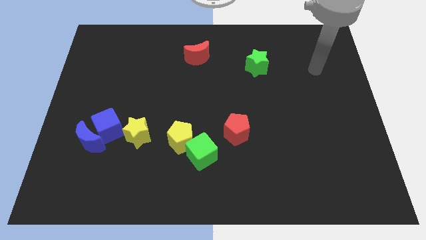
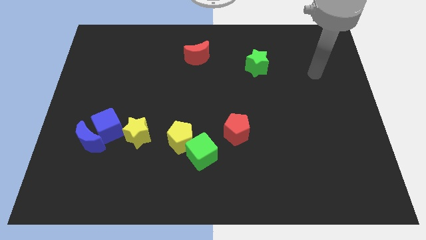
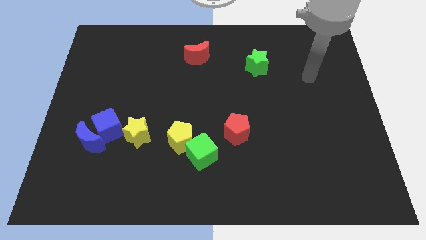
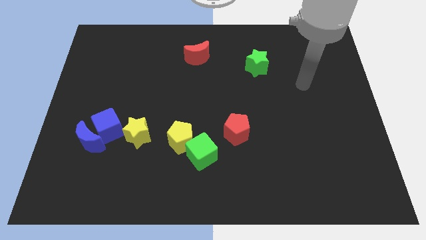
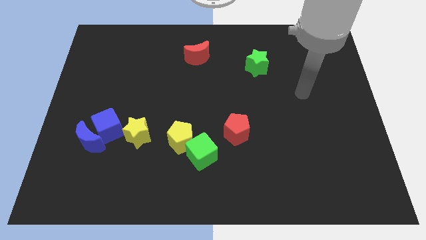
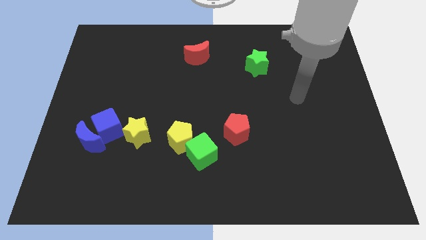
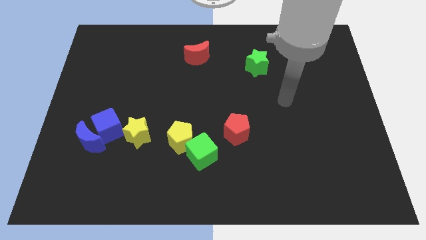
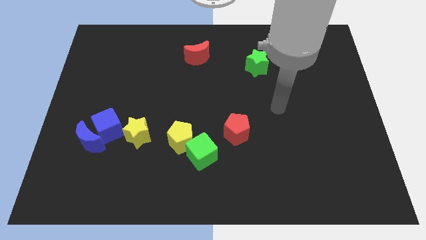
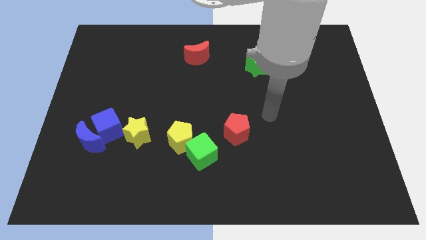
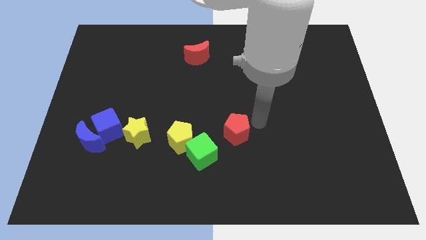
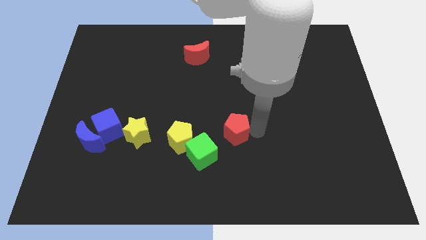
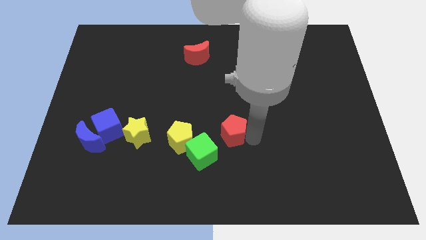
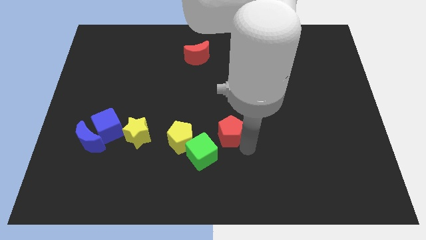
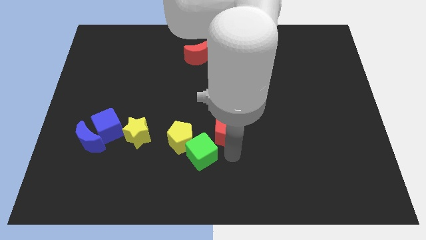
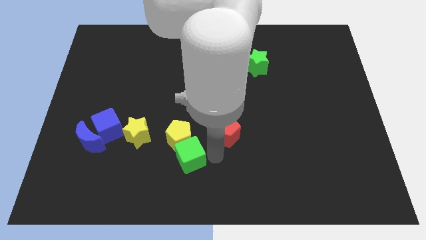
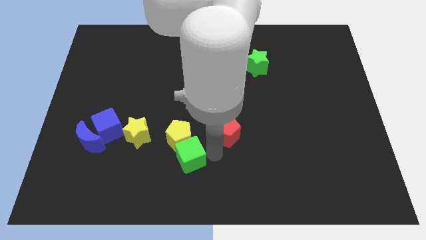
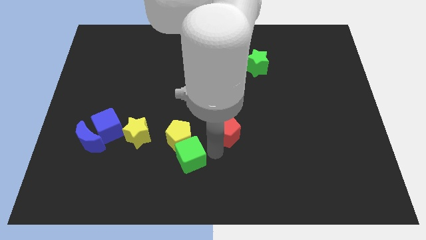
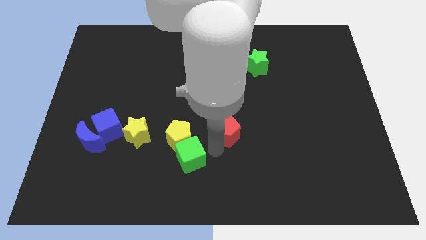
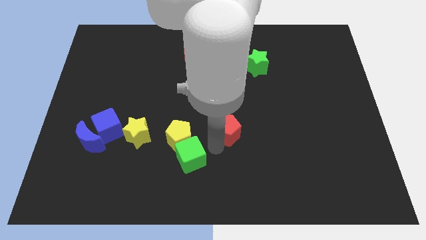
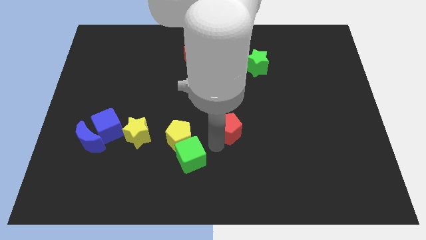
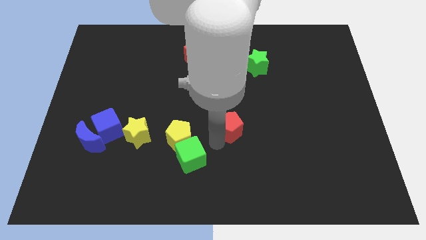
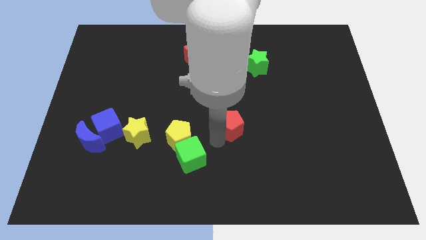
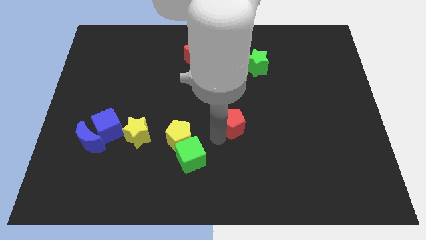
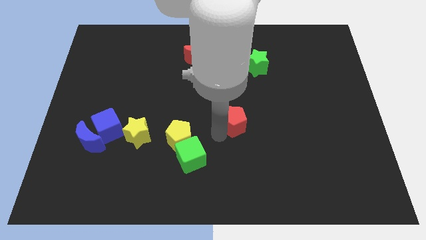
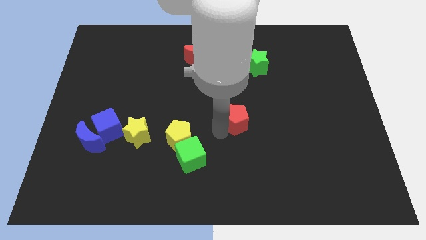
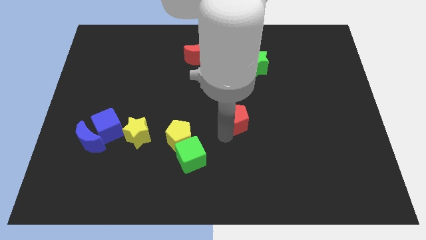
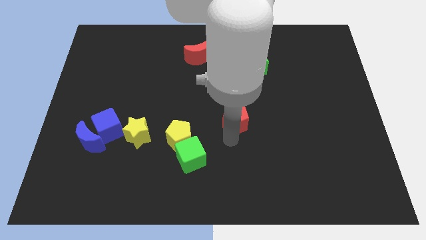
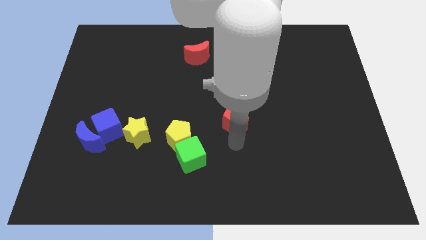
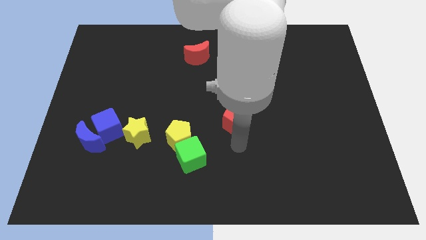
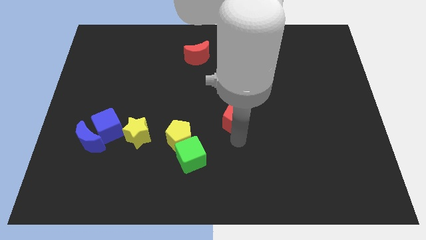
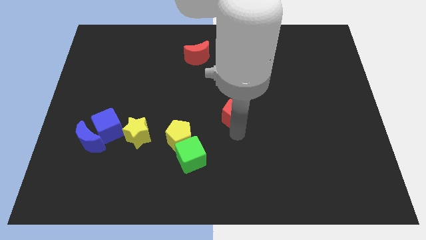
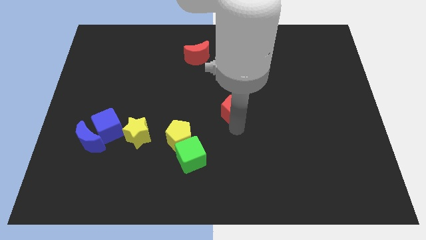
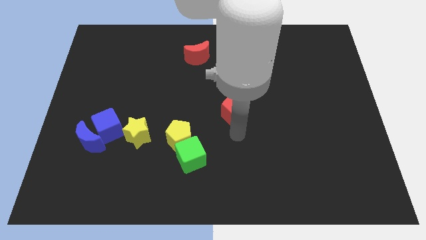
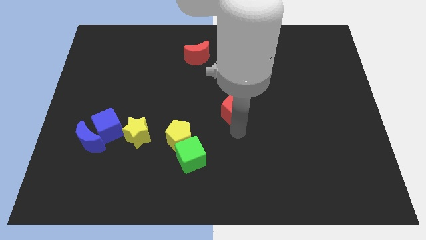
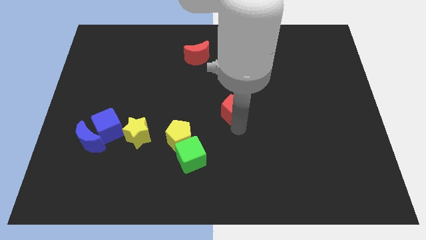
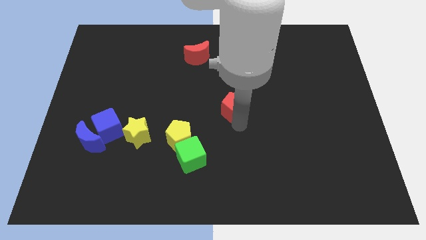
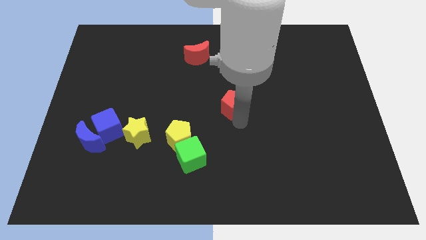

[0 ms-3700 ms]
slide the red pentagon upwards a little

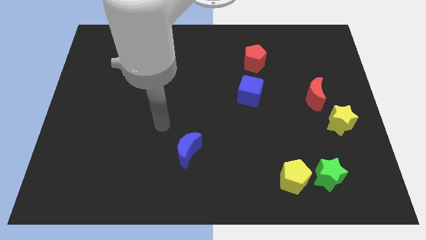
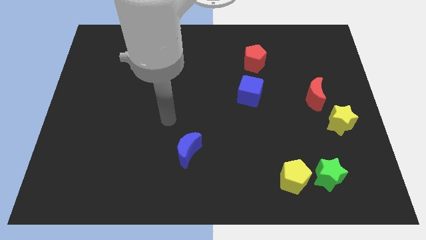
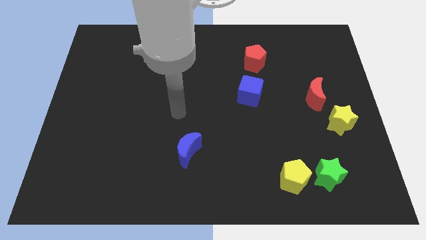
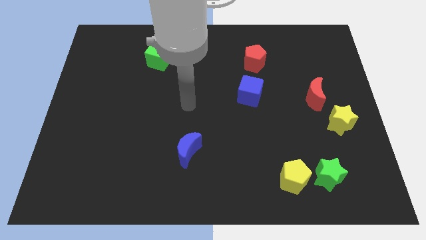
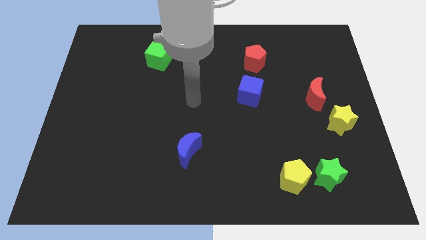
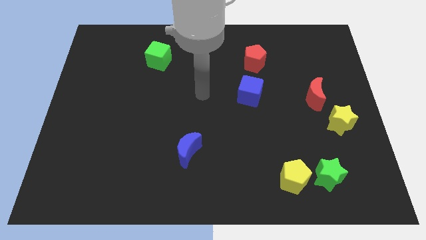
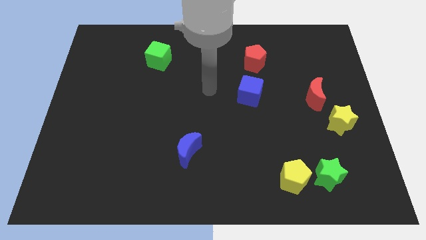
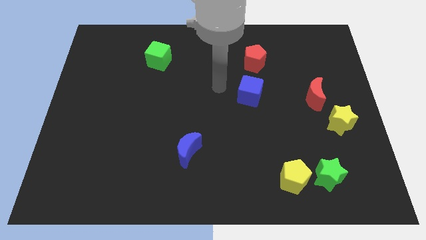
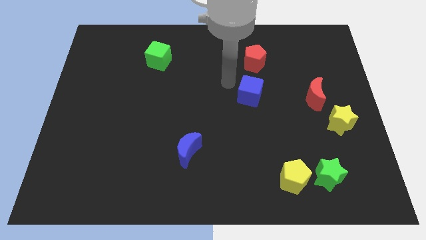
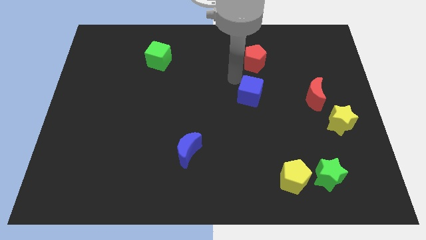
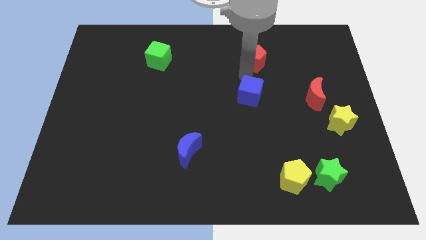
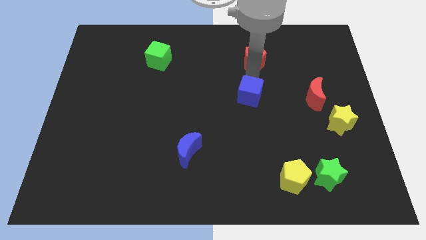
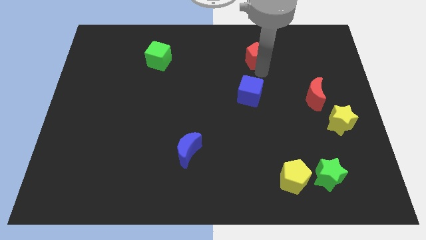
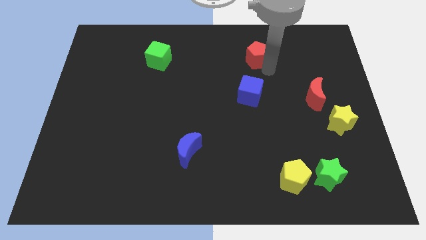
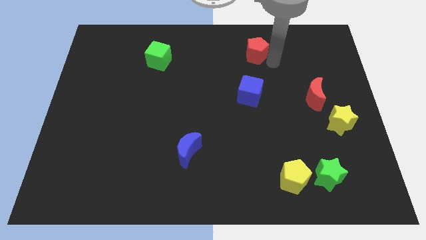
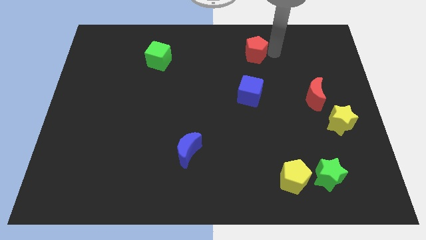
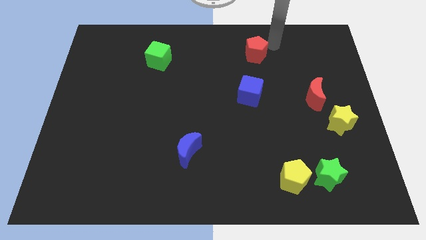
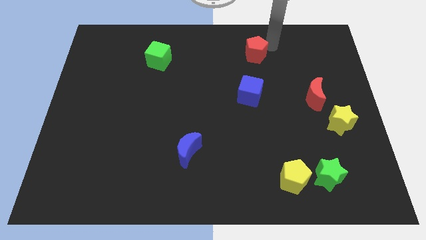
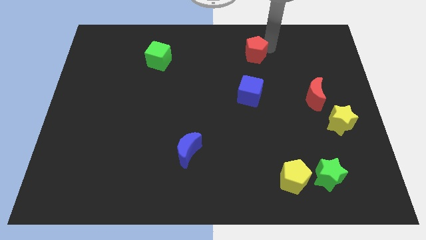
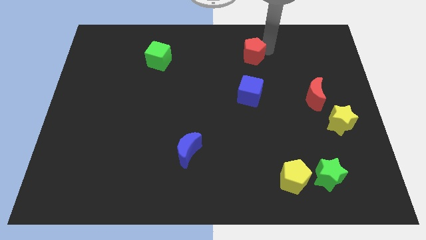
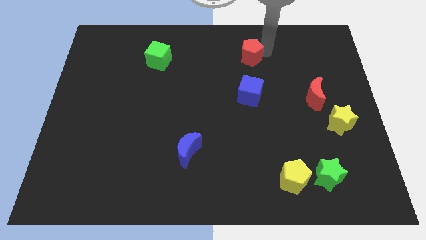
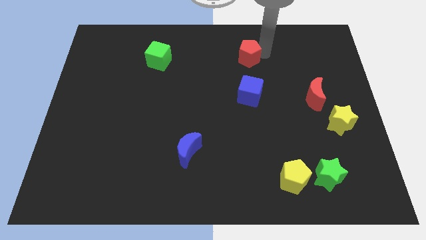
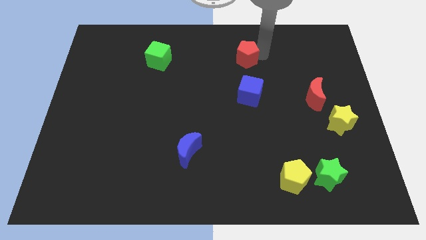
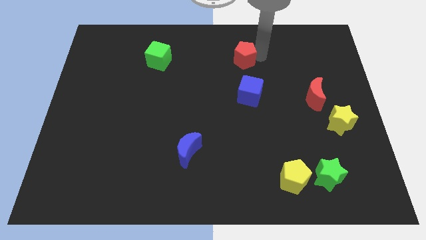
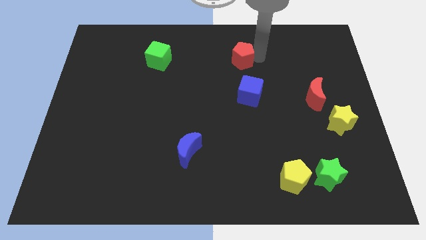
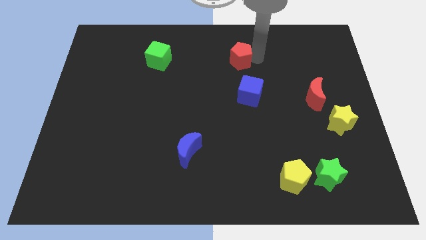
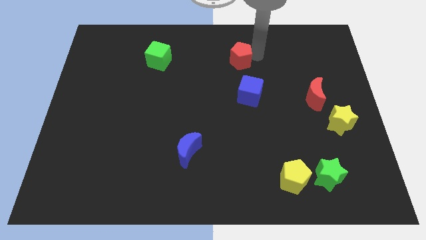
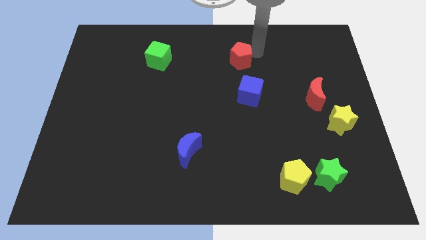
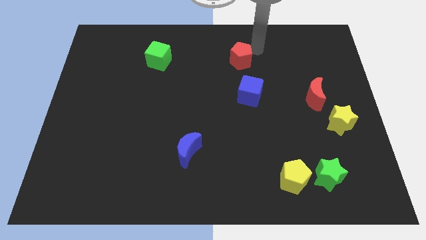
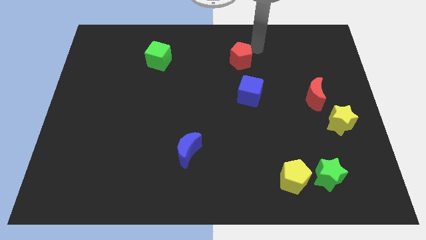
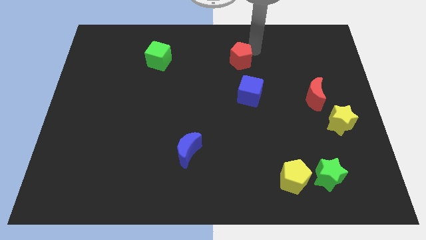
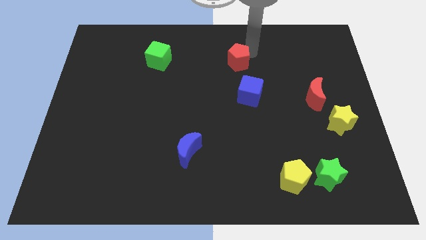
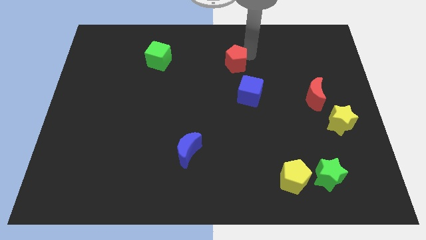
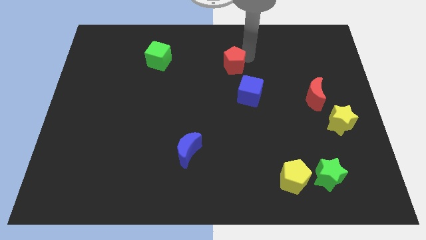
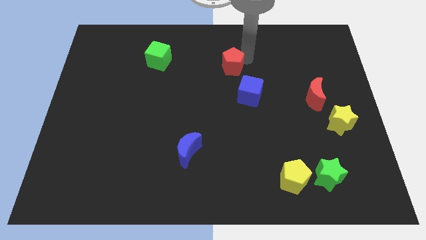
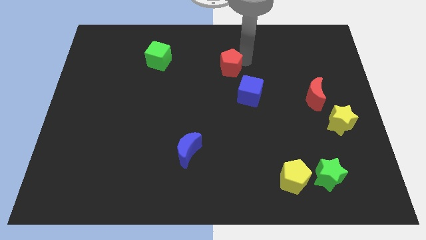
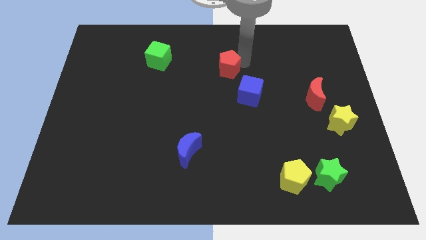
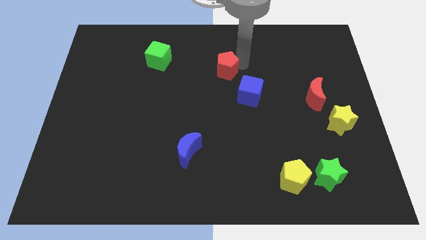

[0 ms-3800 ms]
slightly slide the red pentagon to the left

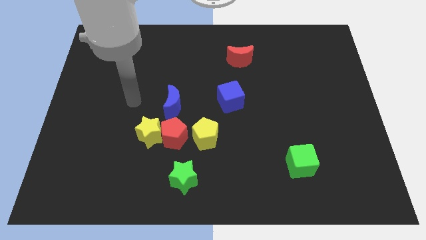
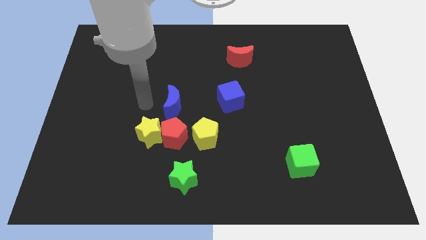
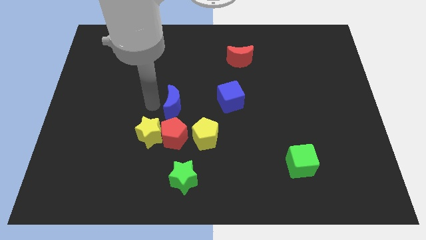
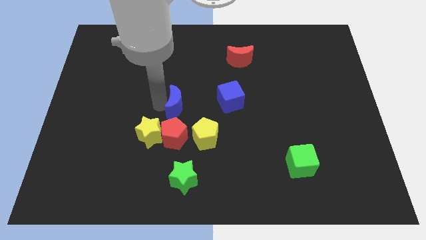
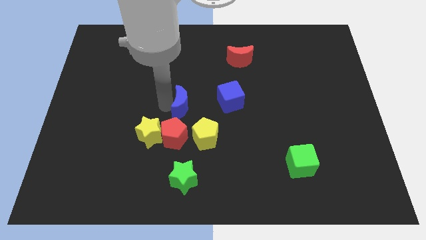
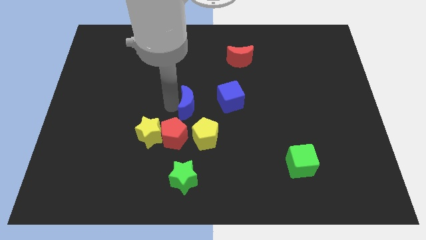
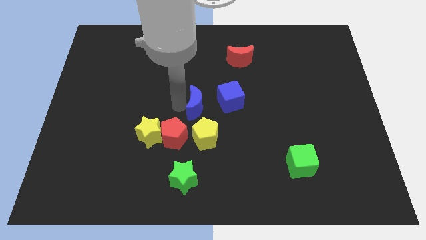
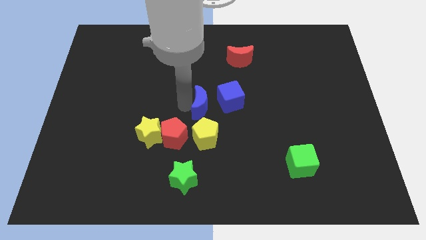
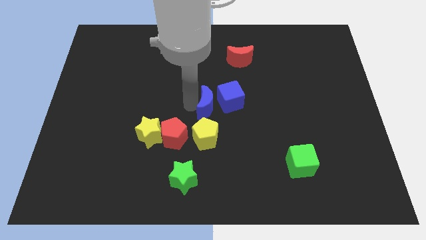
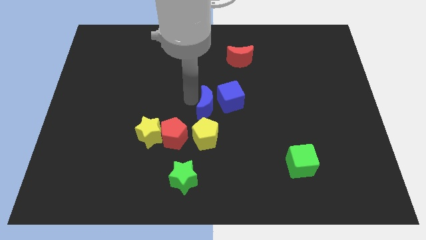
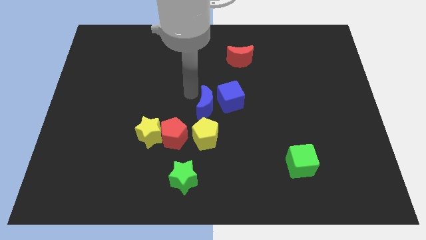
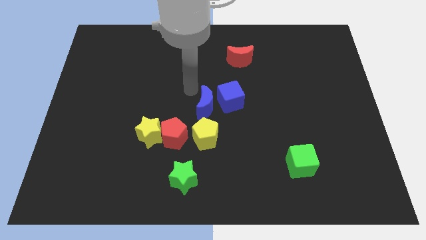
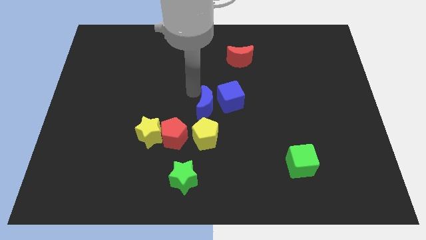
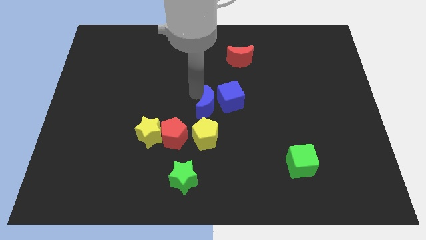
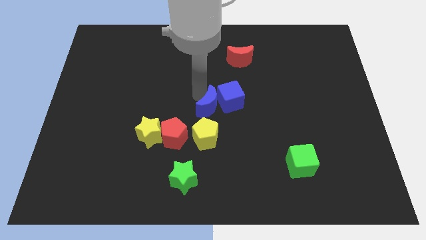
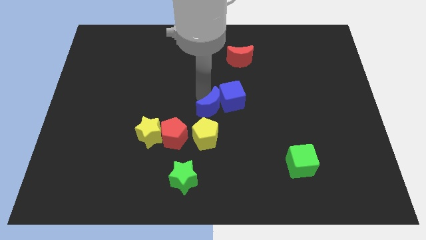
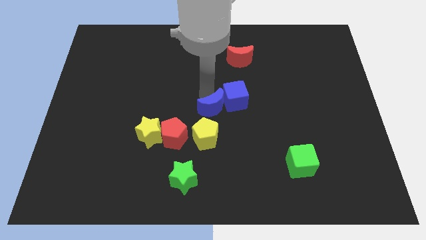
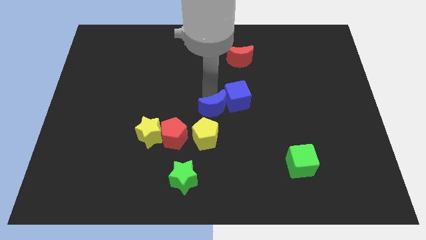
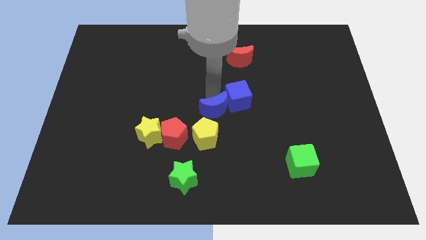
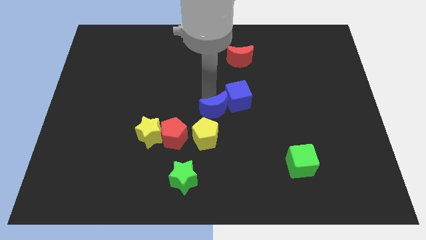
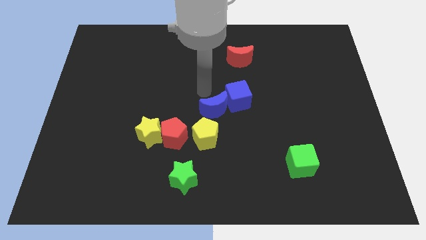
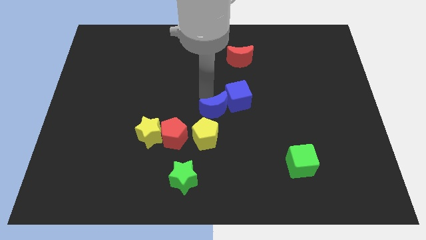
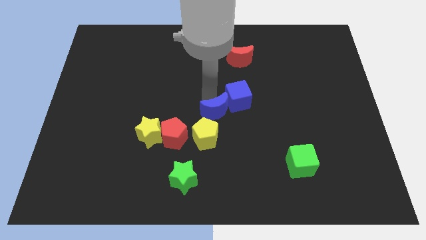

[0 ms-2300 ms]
slightly slide the blue moon downwards and then right
